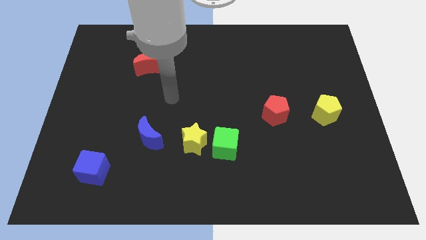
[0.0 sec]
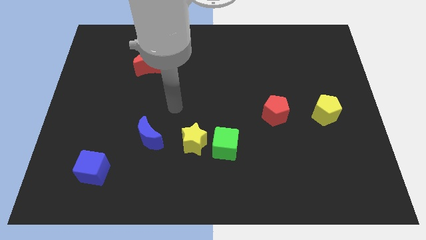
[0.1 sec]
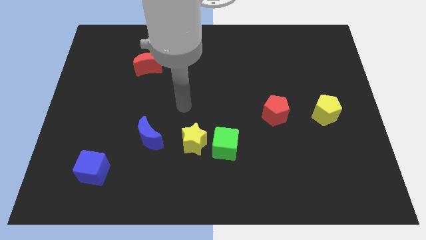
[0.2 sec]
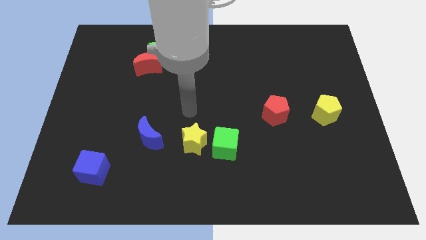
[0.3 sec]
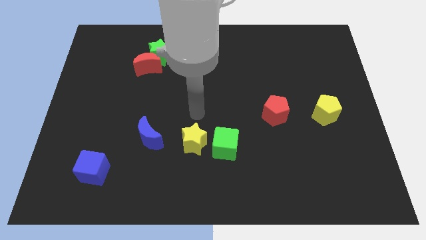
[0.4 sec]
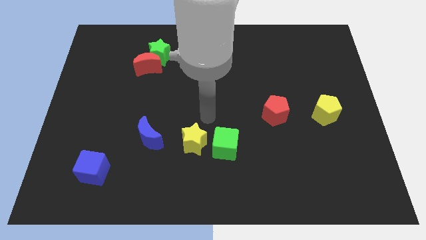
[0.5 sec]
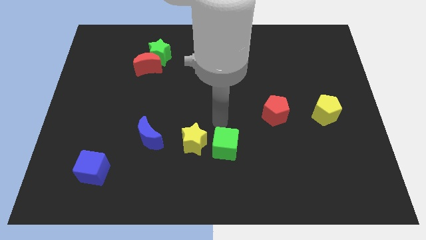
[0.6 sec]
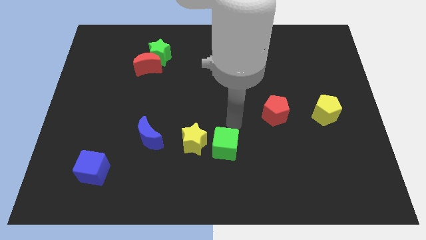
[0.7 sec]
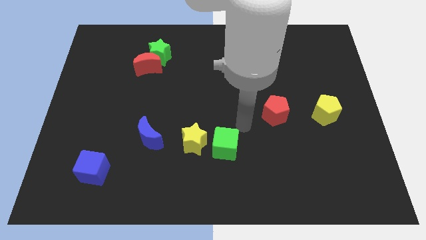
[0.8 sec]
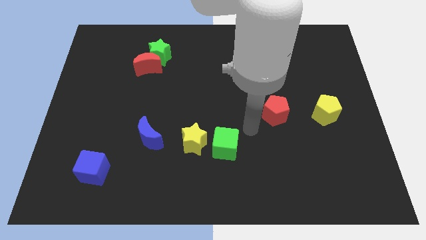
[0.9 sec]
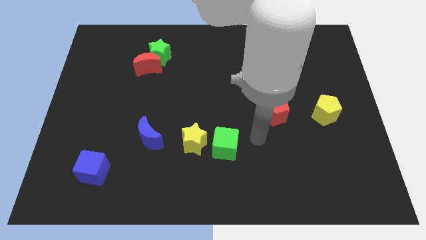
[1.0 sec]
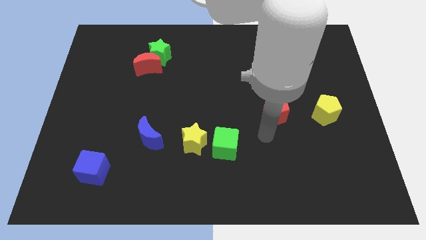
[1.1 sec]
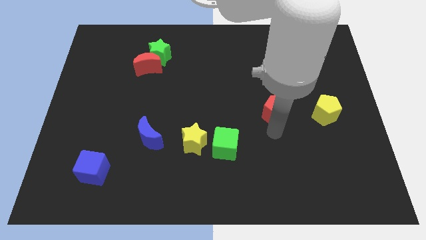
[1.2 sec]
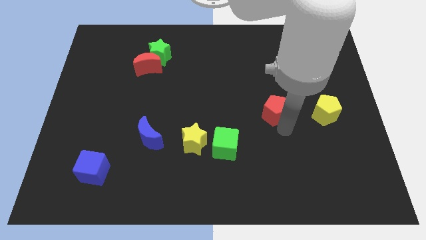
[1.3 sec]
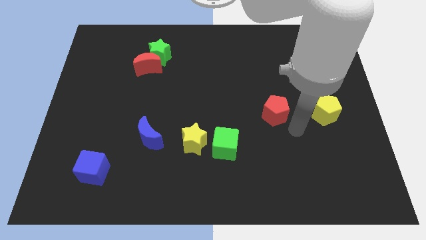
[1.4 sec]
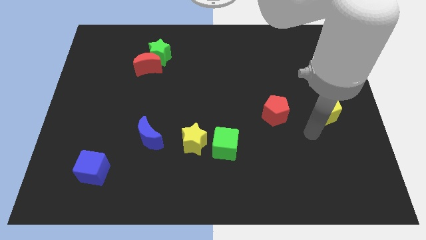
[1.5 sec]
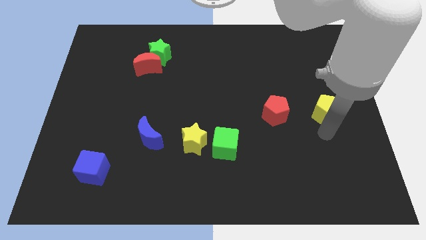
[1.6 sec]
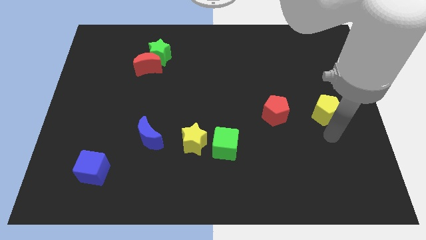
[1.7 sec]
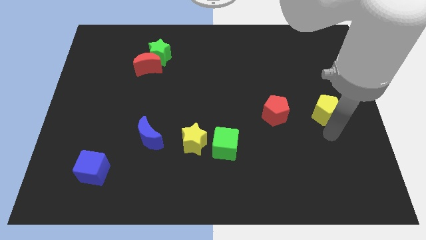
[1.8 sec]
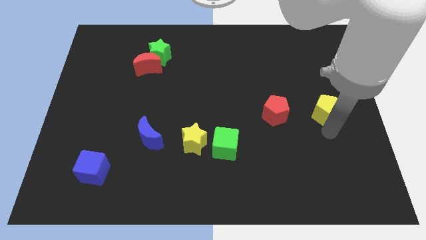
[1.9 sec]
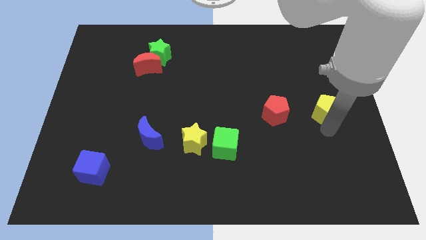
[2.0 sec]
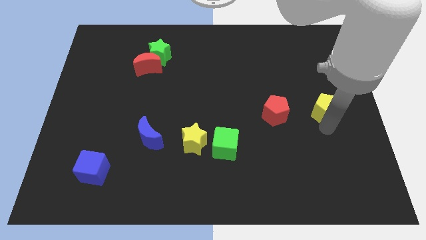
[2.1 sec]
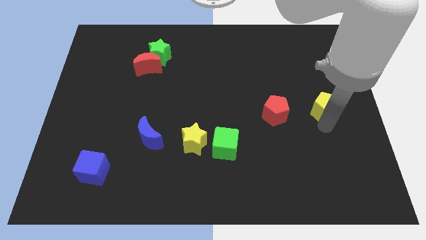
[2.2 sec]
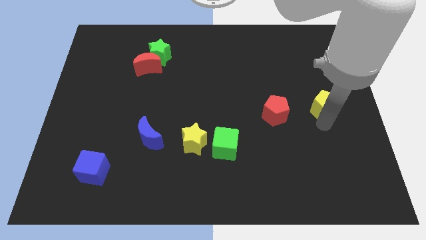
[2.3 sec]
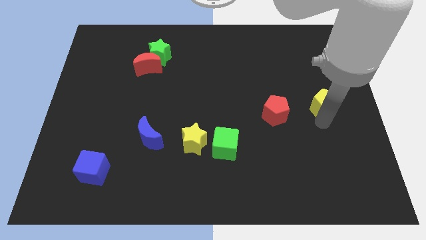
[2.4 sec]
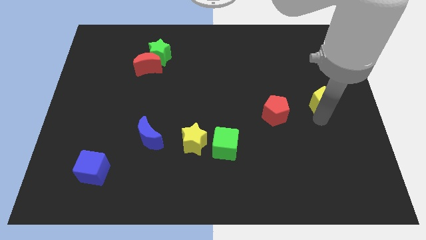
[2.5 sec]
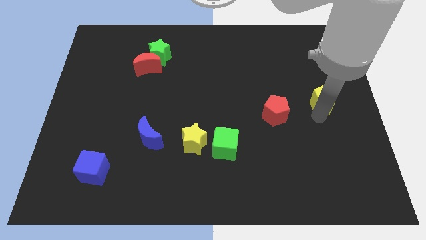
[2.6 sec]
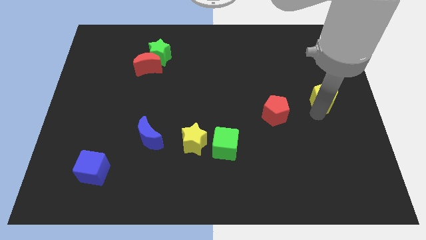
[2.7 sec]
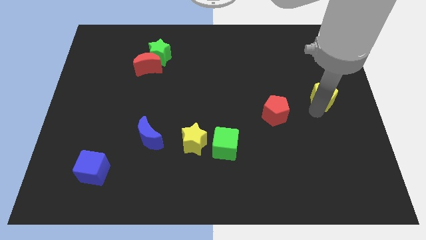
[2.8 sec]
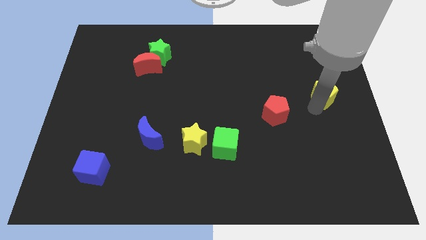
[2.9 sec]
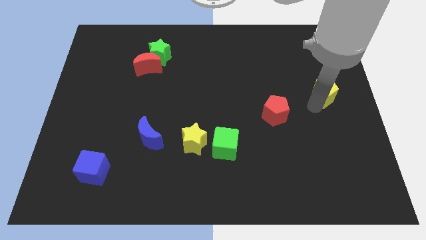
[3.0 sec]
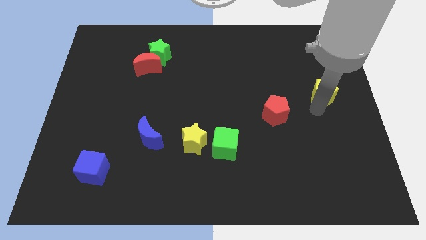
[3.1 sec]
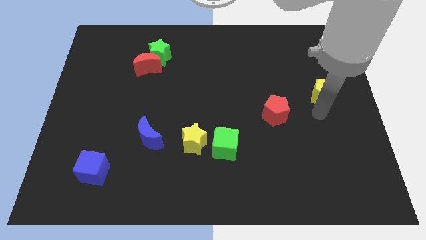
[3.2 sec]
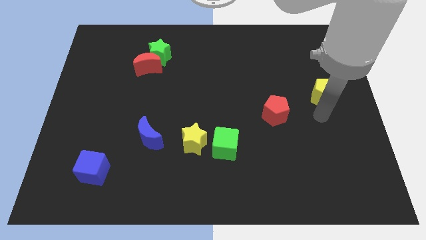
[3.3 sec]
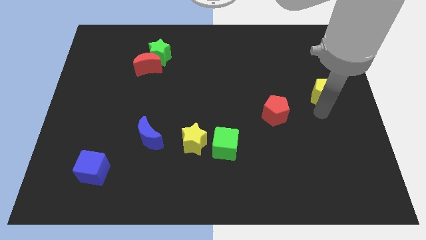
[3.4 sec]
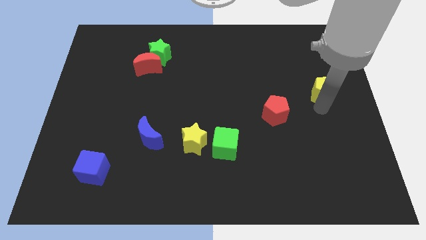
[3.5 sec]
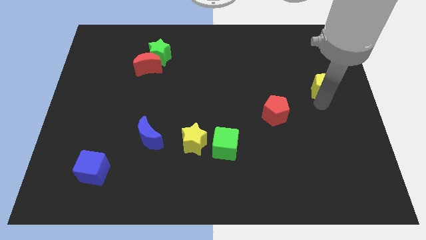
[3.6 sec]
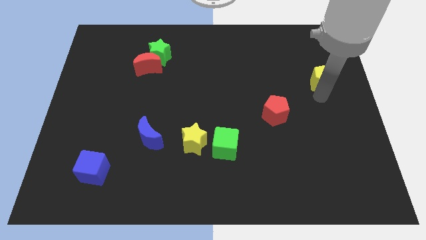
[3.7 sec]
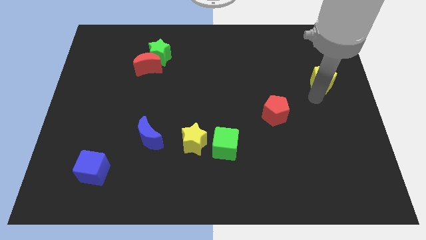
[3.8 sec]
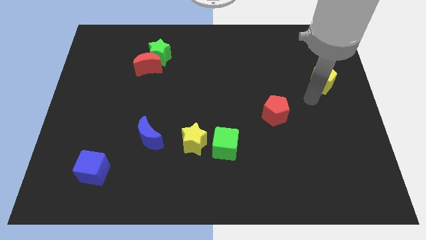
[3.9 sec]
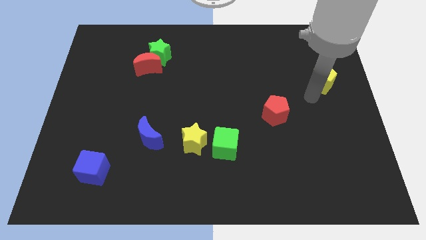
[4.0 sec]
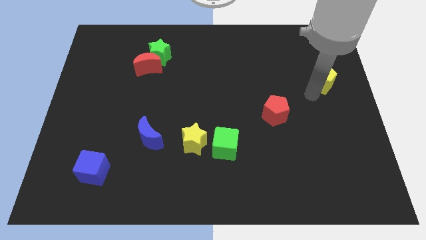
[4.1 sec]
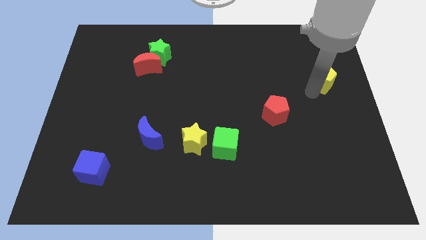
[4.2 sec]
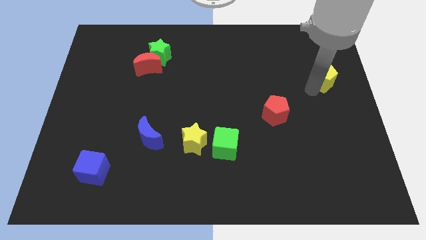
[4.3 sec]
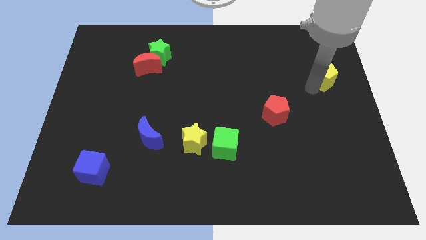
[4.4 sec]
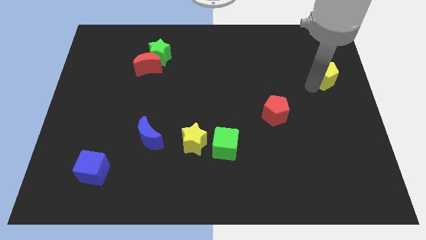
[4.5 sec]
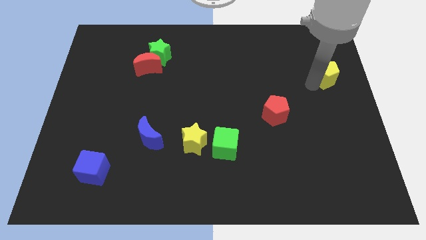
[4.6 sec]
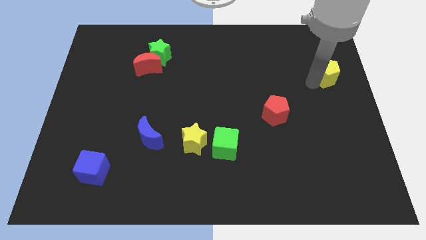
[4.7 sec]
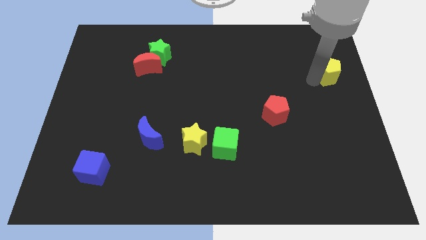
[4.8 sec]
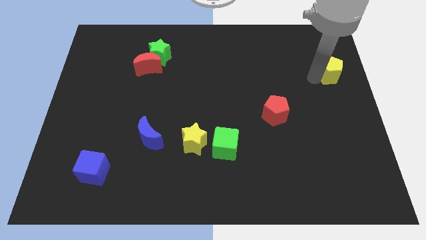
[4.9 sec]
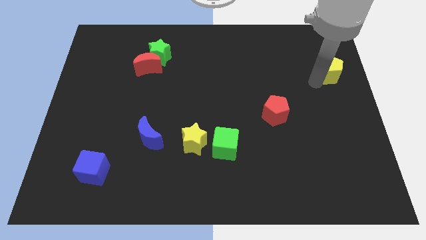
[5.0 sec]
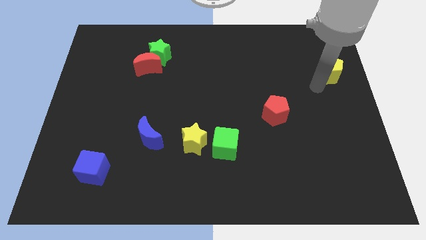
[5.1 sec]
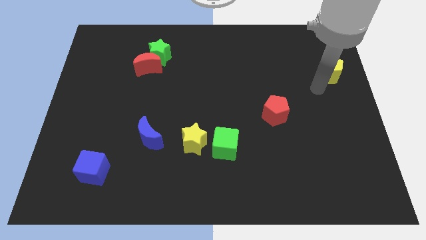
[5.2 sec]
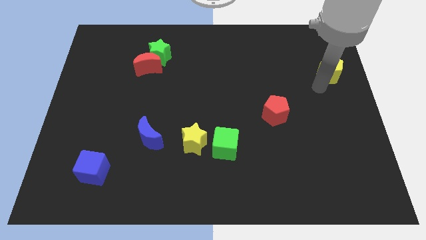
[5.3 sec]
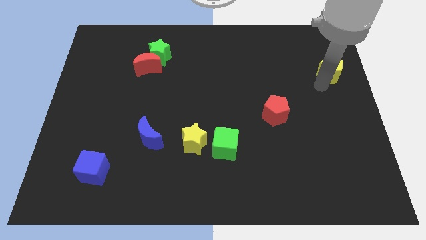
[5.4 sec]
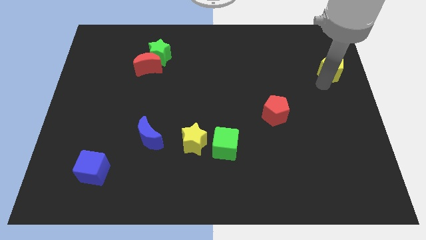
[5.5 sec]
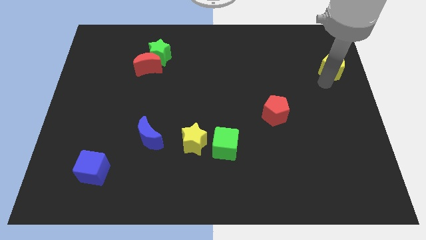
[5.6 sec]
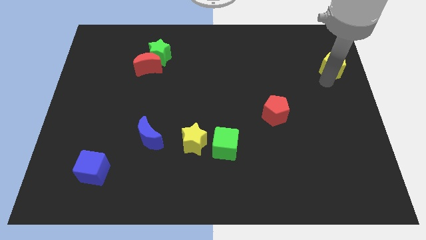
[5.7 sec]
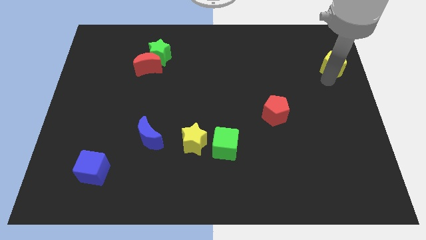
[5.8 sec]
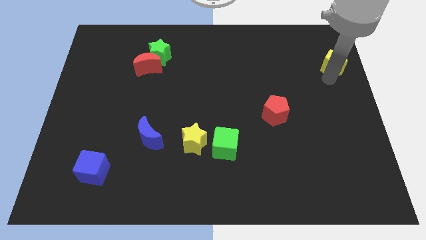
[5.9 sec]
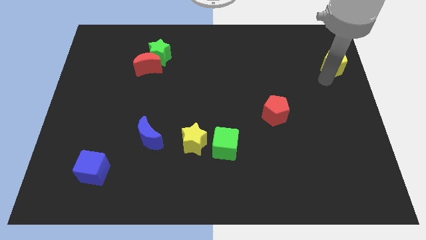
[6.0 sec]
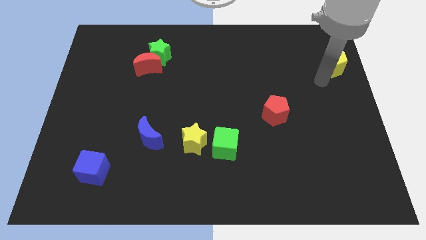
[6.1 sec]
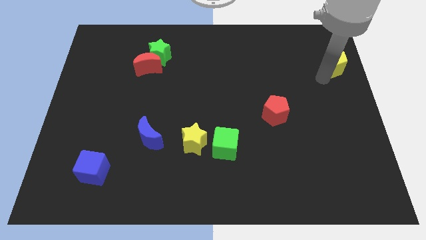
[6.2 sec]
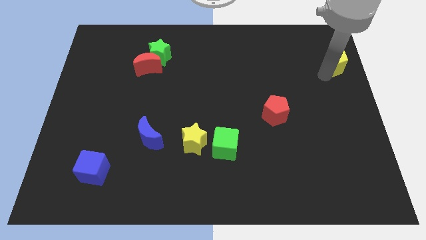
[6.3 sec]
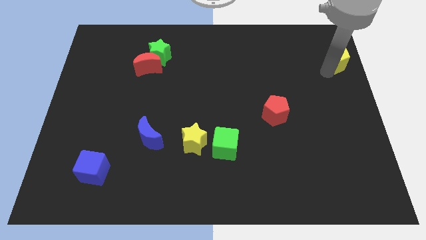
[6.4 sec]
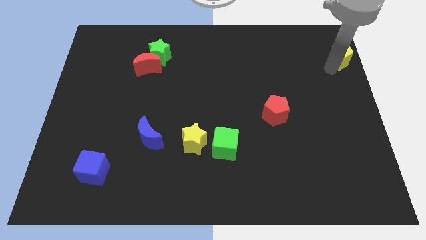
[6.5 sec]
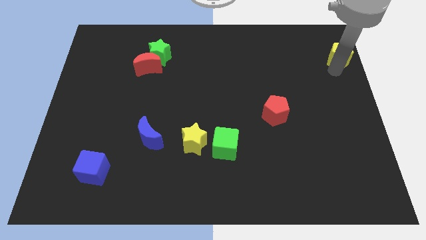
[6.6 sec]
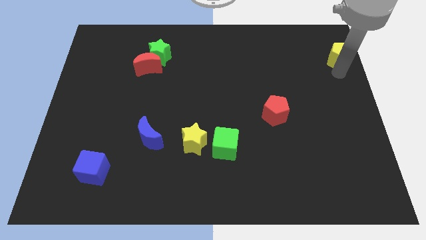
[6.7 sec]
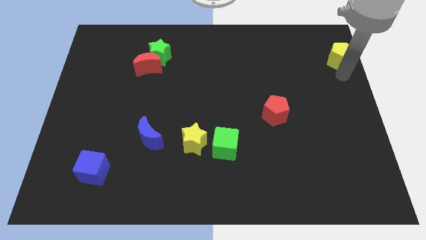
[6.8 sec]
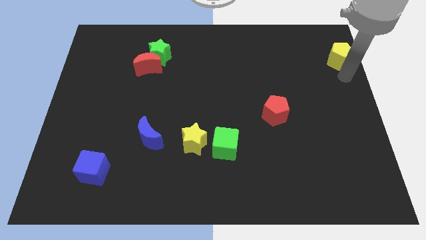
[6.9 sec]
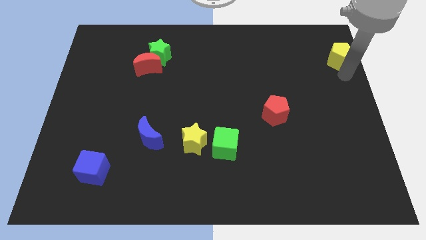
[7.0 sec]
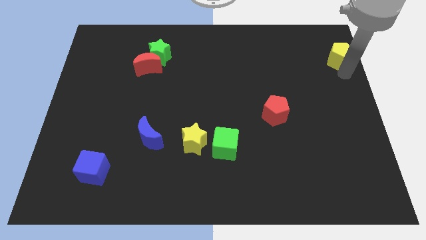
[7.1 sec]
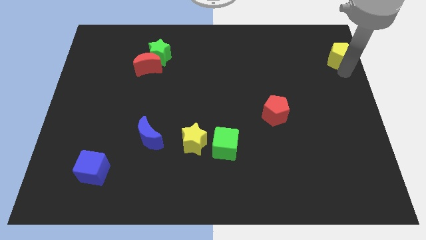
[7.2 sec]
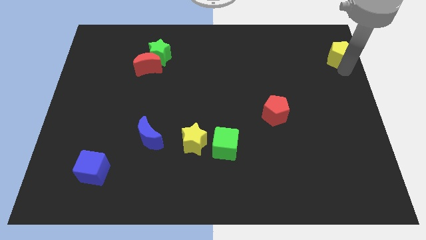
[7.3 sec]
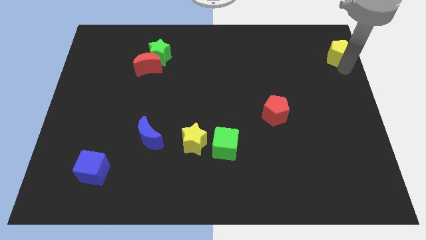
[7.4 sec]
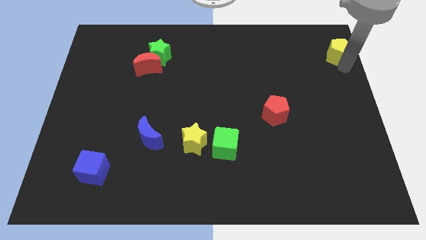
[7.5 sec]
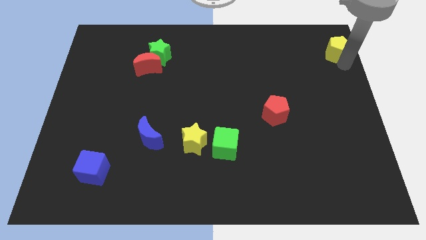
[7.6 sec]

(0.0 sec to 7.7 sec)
move the yellow pentagon to the top right
